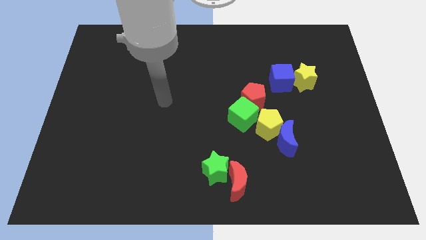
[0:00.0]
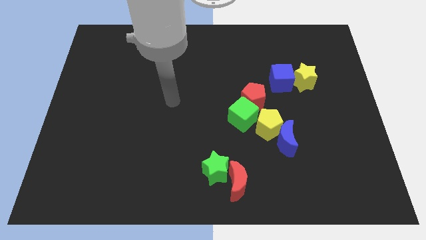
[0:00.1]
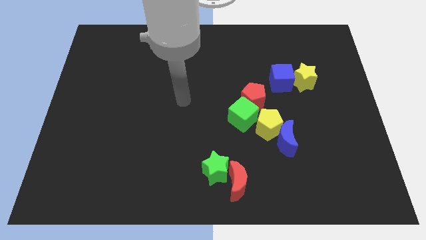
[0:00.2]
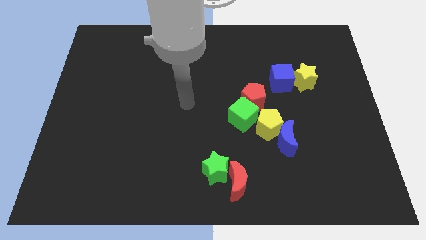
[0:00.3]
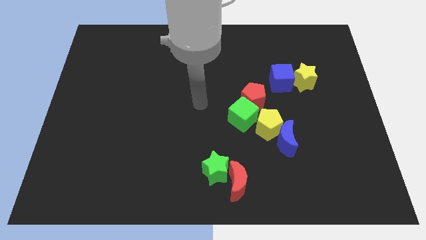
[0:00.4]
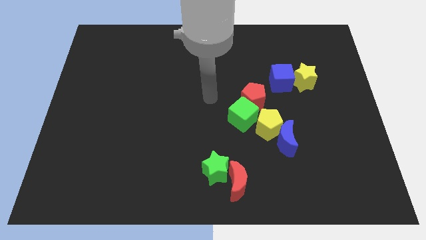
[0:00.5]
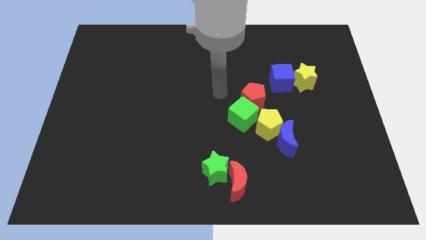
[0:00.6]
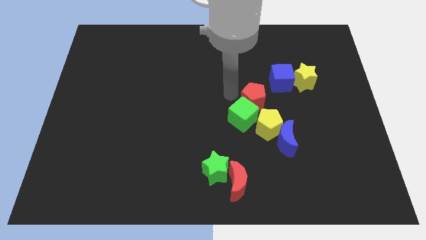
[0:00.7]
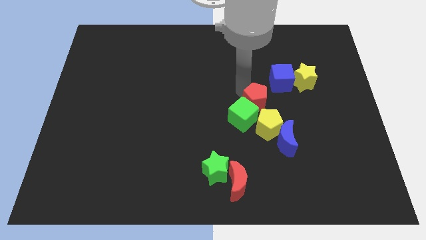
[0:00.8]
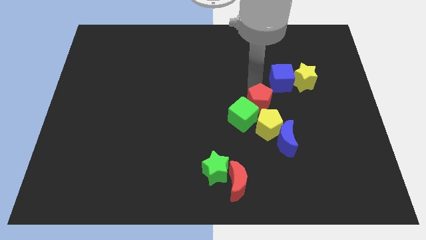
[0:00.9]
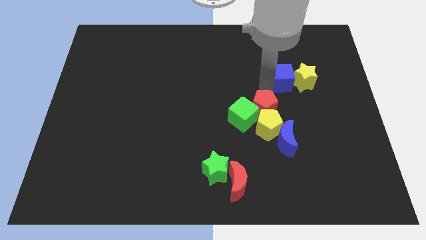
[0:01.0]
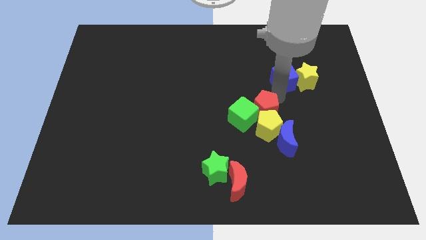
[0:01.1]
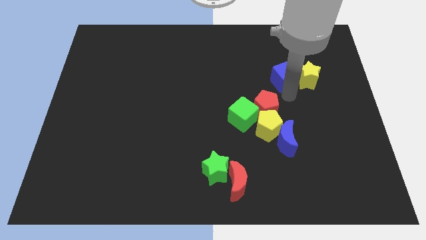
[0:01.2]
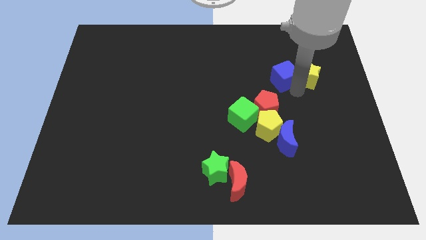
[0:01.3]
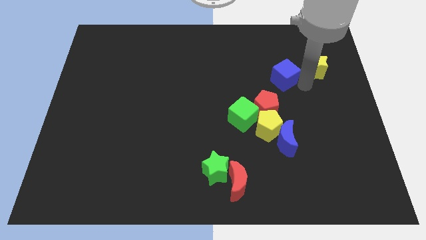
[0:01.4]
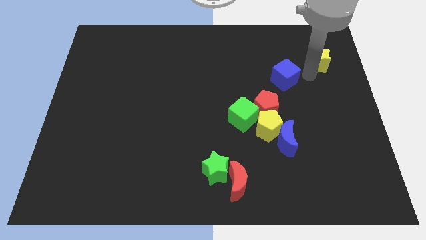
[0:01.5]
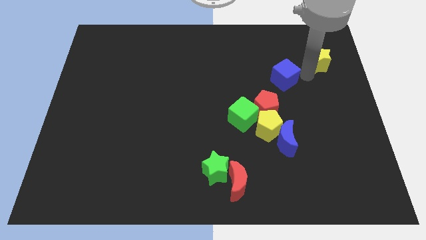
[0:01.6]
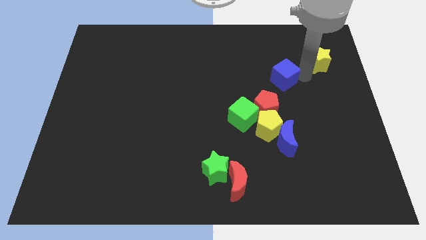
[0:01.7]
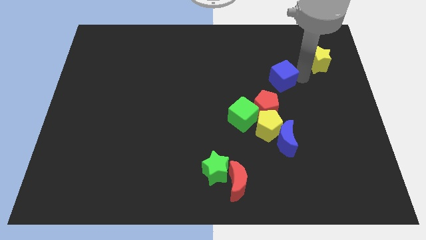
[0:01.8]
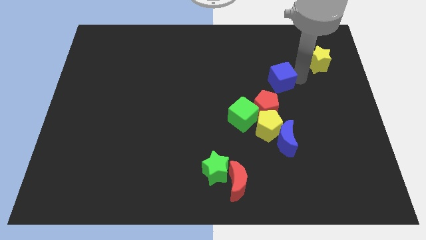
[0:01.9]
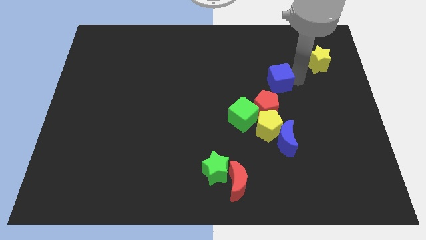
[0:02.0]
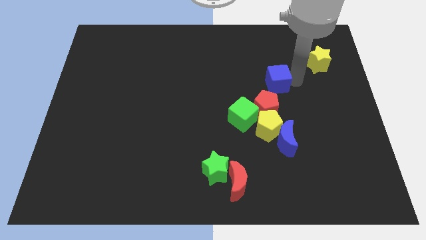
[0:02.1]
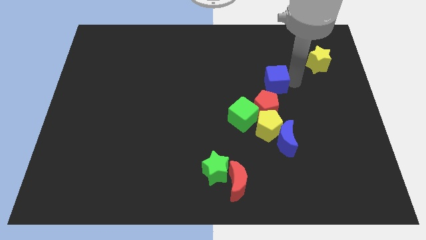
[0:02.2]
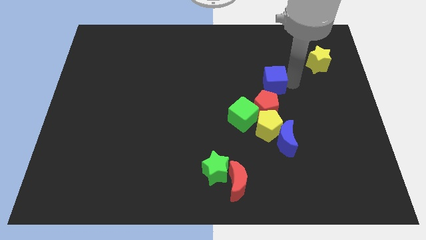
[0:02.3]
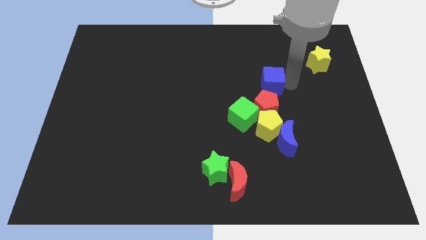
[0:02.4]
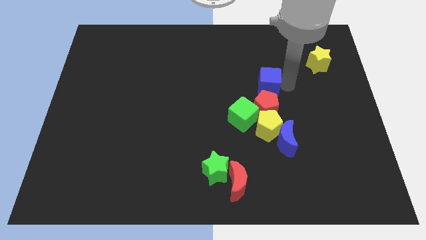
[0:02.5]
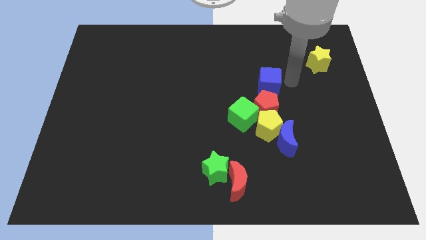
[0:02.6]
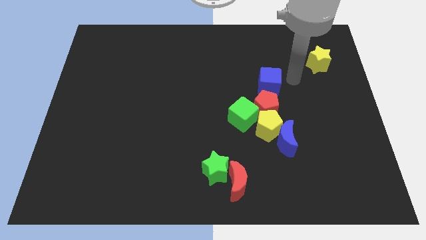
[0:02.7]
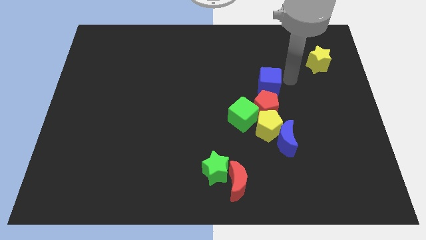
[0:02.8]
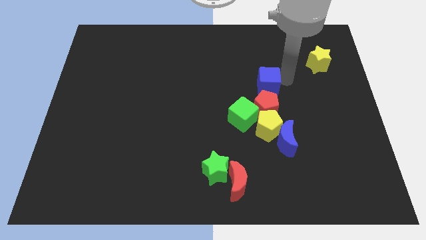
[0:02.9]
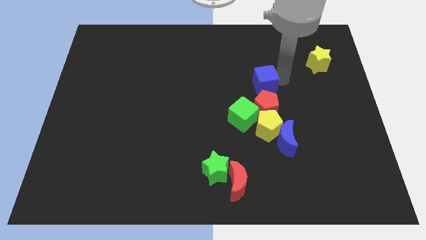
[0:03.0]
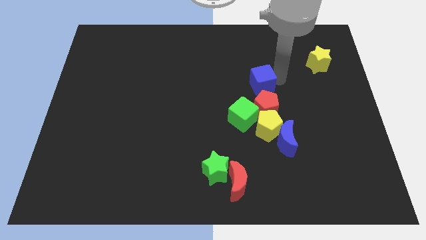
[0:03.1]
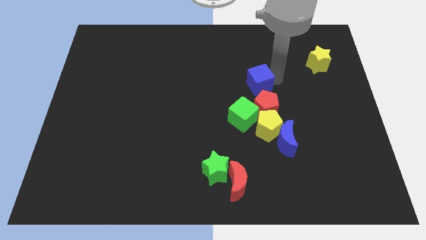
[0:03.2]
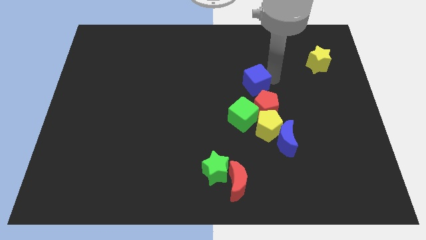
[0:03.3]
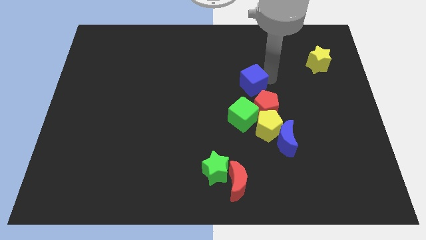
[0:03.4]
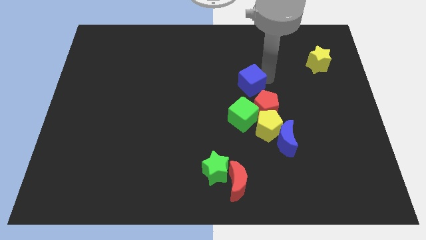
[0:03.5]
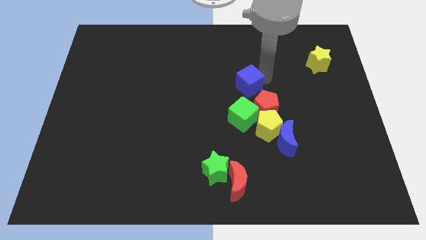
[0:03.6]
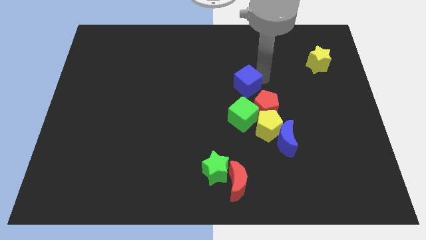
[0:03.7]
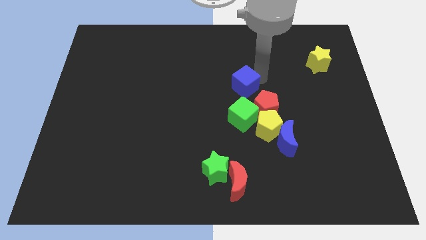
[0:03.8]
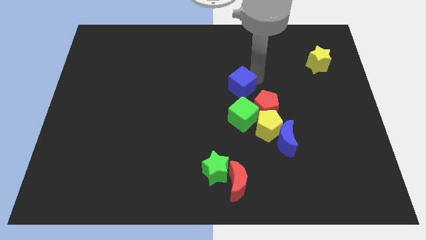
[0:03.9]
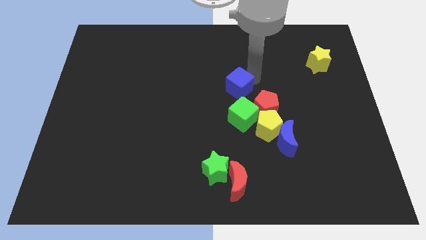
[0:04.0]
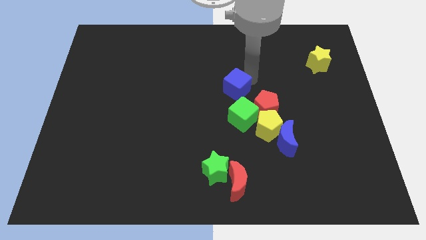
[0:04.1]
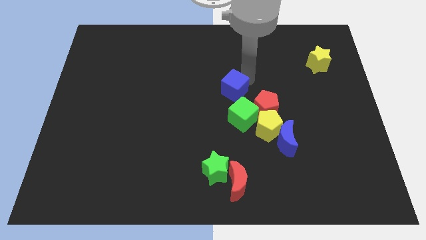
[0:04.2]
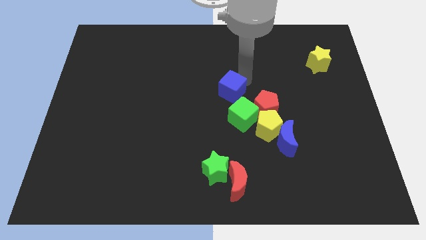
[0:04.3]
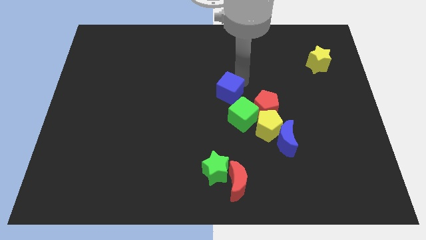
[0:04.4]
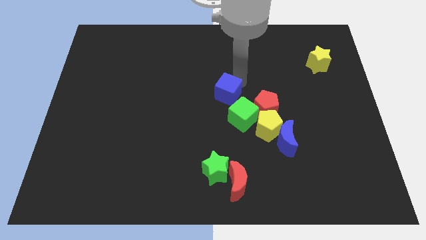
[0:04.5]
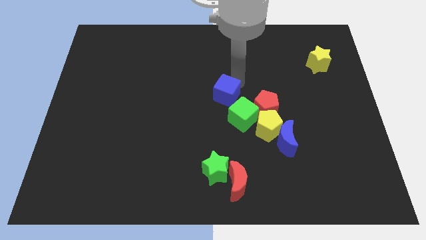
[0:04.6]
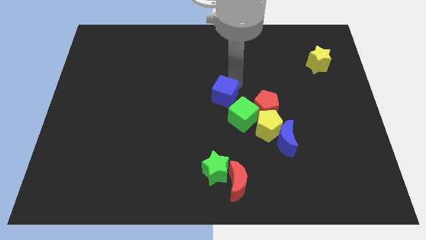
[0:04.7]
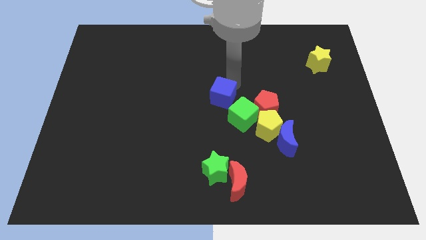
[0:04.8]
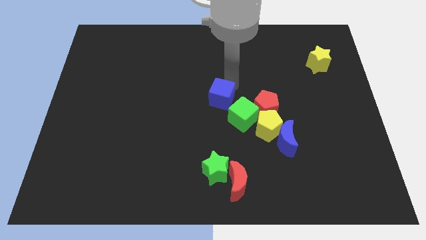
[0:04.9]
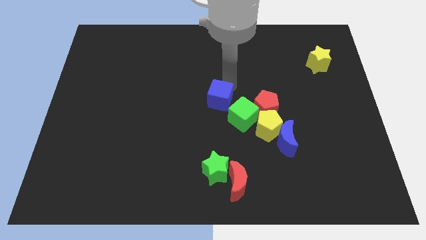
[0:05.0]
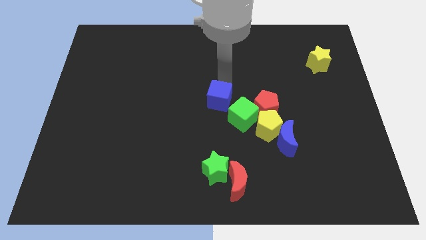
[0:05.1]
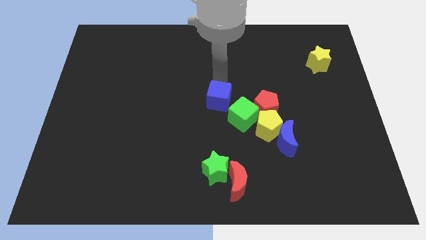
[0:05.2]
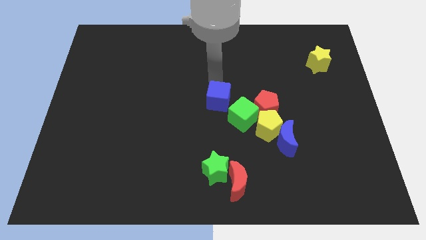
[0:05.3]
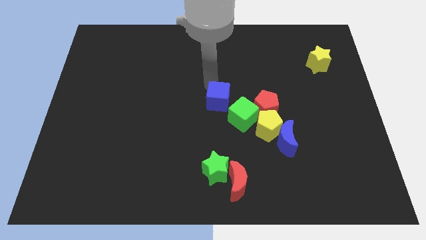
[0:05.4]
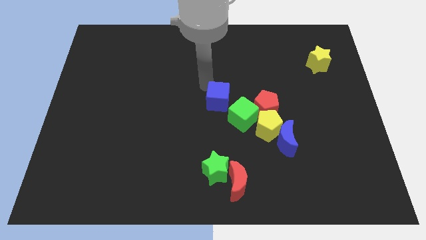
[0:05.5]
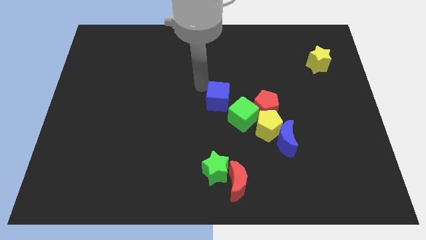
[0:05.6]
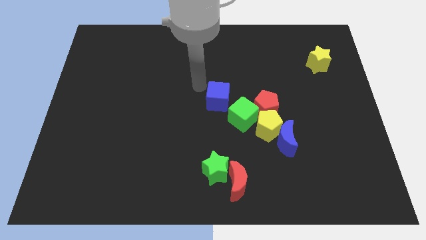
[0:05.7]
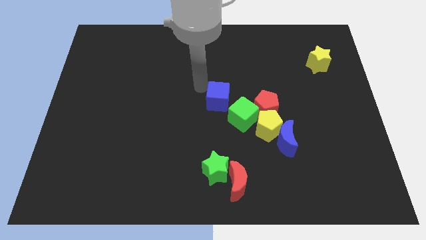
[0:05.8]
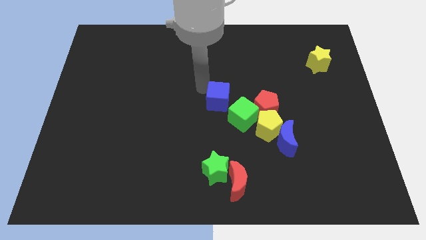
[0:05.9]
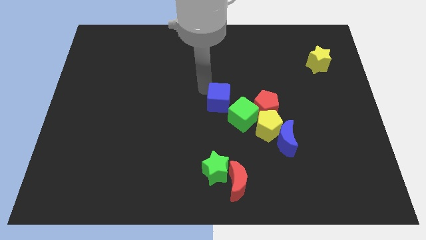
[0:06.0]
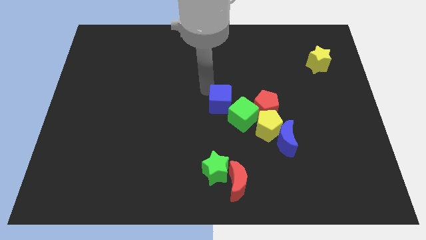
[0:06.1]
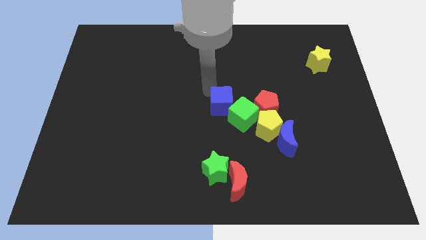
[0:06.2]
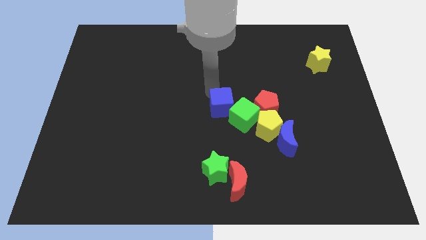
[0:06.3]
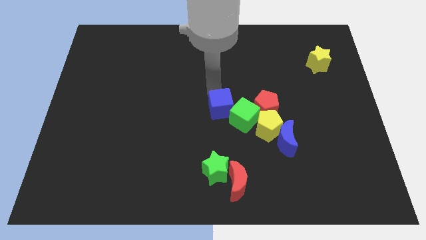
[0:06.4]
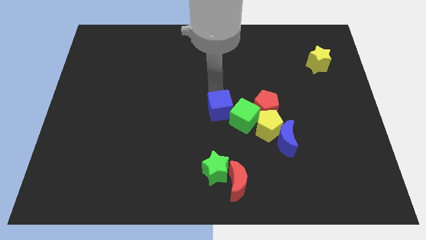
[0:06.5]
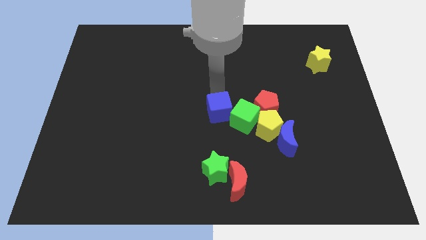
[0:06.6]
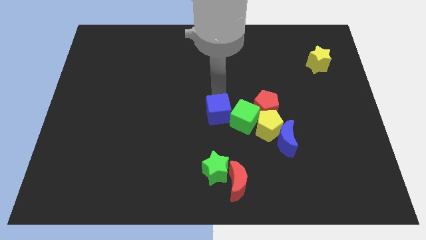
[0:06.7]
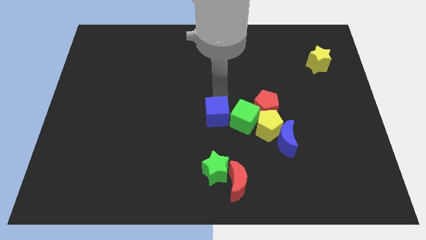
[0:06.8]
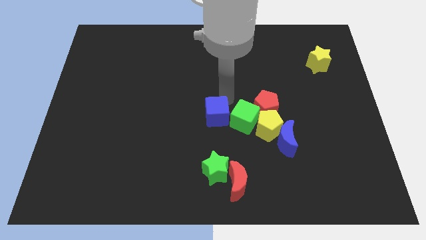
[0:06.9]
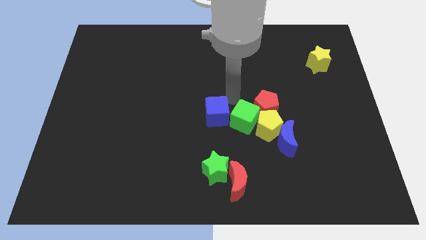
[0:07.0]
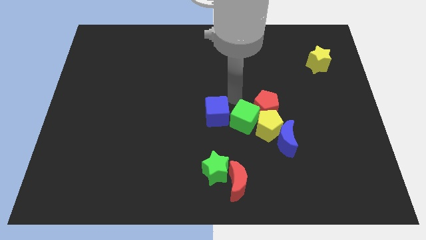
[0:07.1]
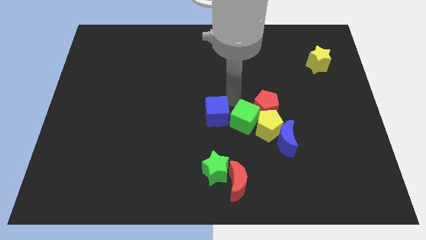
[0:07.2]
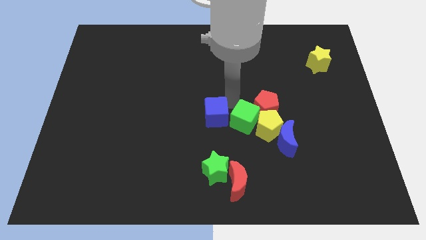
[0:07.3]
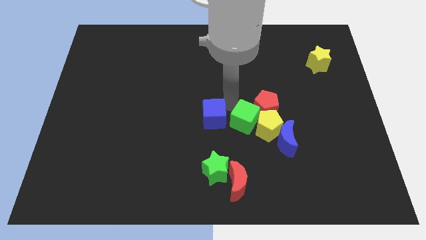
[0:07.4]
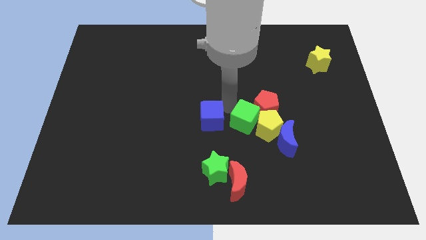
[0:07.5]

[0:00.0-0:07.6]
slide the blue cube down and then left

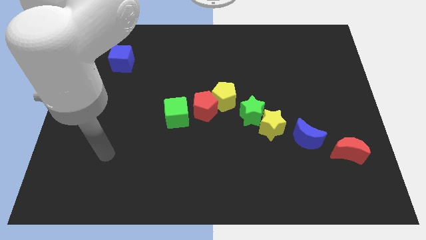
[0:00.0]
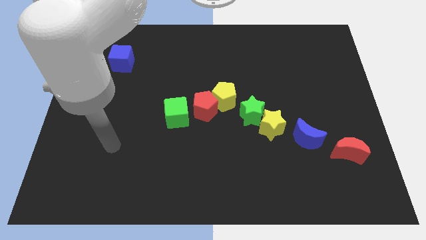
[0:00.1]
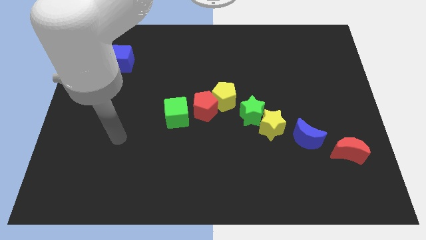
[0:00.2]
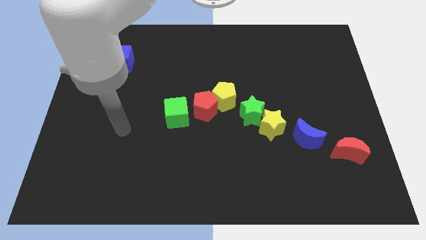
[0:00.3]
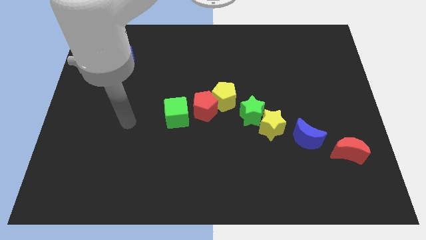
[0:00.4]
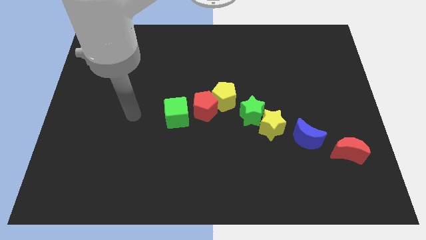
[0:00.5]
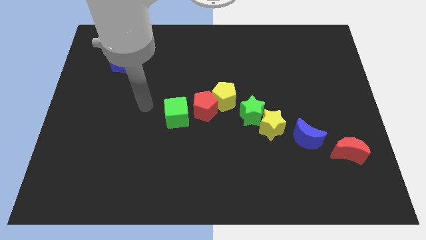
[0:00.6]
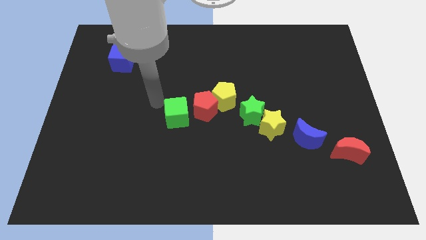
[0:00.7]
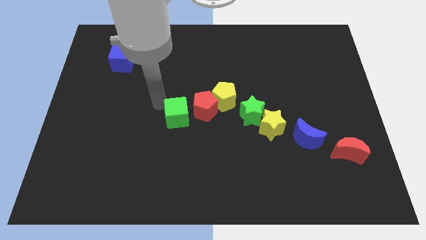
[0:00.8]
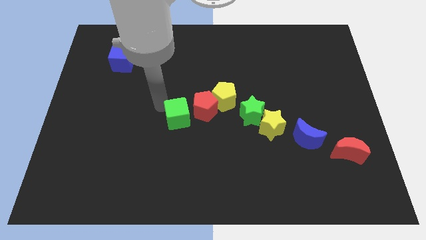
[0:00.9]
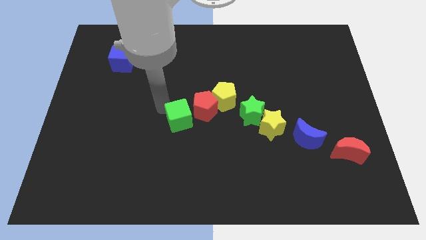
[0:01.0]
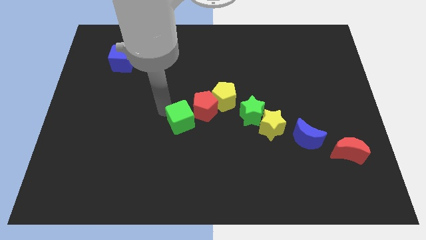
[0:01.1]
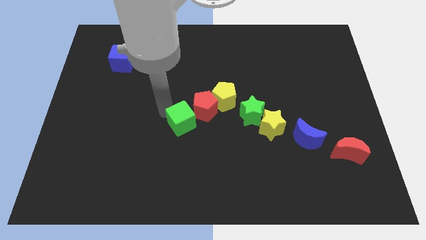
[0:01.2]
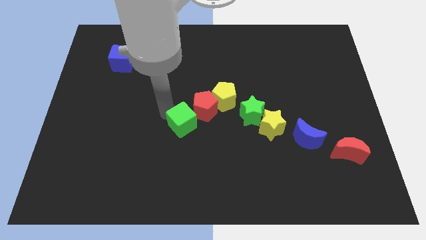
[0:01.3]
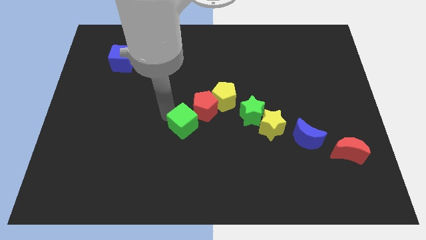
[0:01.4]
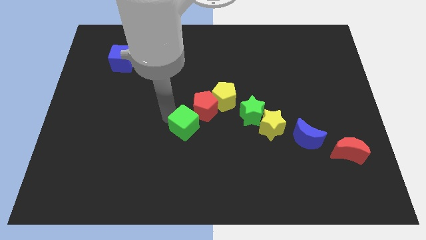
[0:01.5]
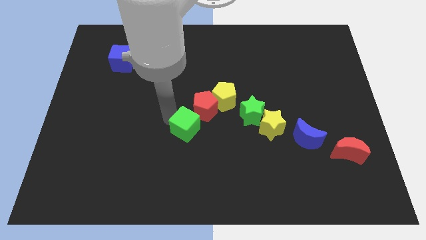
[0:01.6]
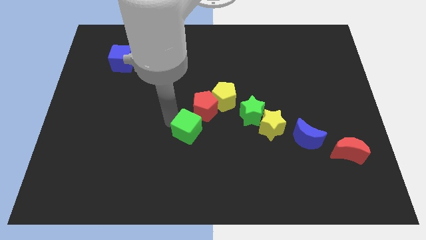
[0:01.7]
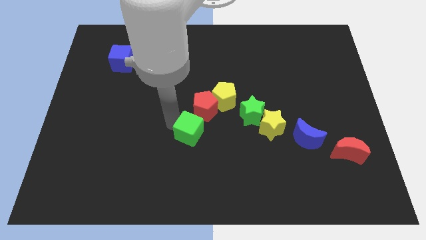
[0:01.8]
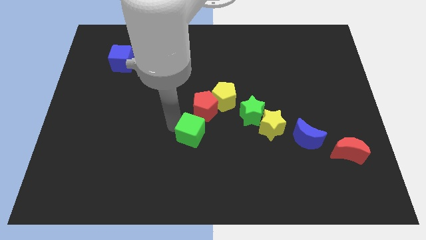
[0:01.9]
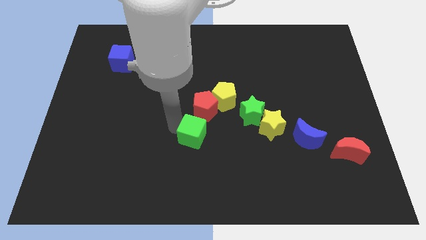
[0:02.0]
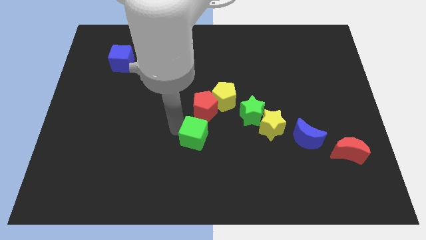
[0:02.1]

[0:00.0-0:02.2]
slightly move the green cube down and right diagonally
